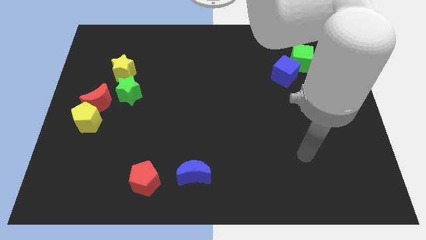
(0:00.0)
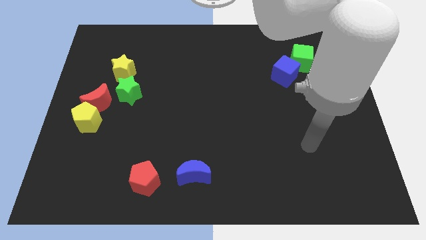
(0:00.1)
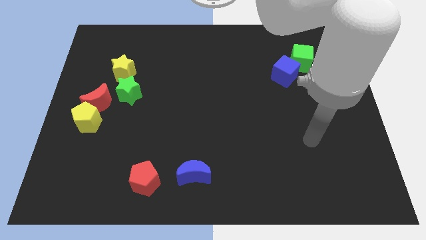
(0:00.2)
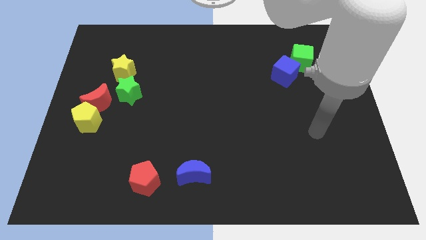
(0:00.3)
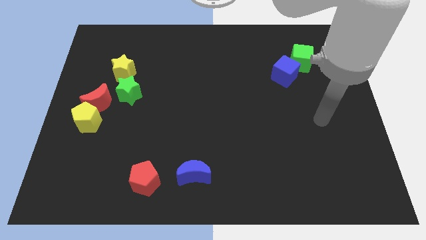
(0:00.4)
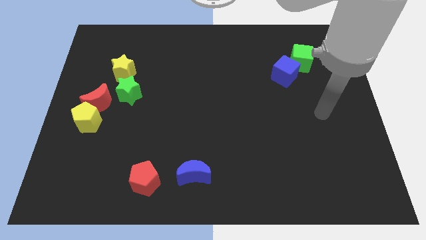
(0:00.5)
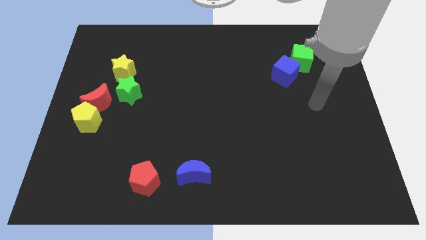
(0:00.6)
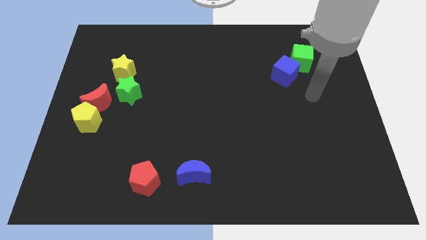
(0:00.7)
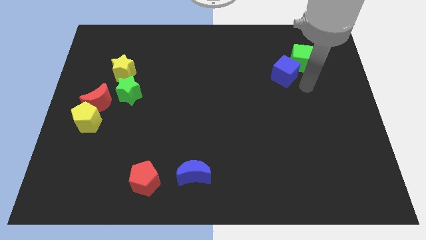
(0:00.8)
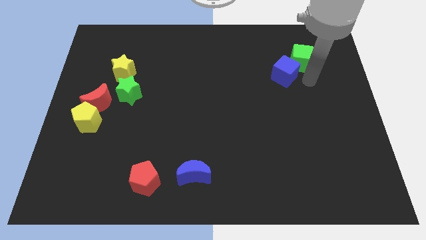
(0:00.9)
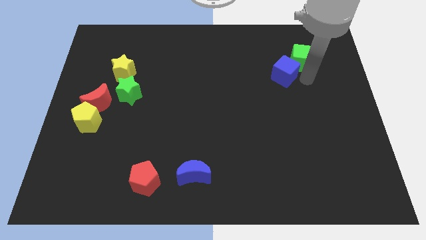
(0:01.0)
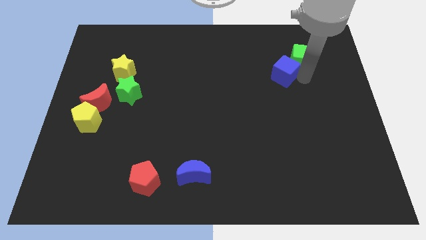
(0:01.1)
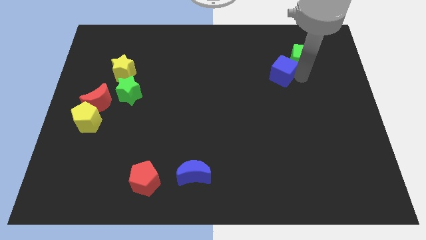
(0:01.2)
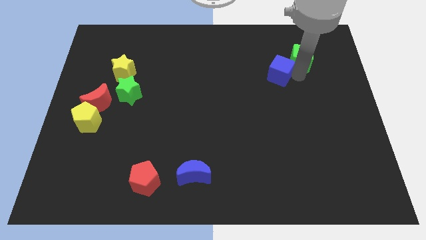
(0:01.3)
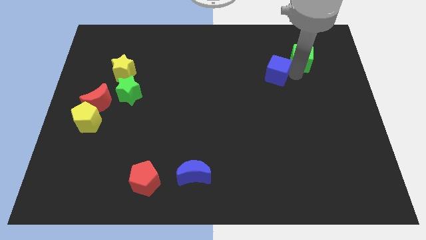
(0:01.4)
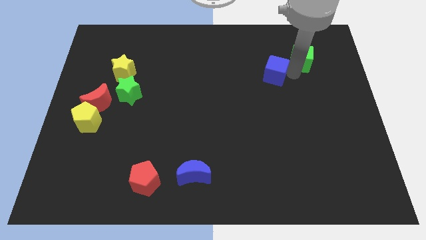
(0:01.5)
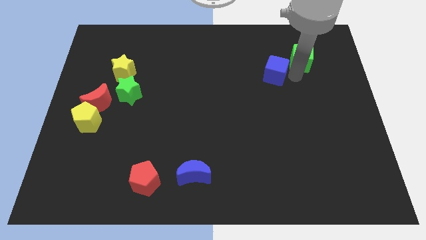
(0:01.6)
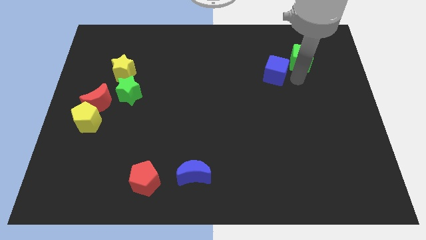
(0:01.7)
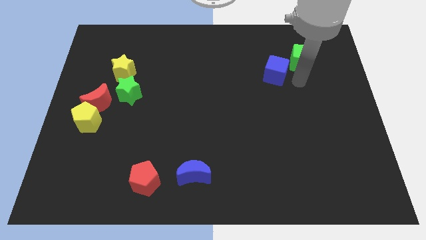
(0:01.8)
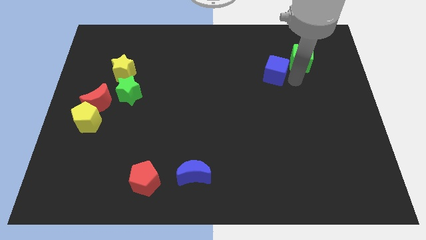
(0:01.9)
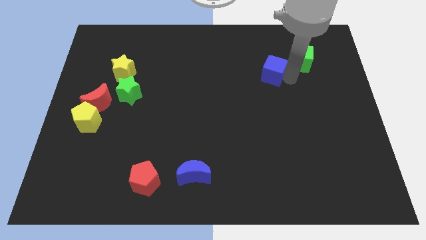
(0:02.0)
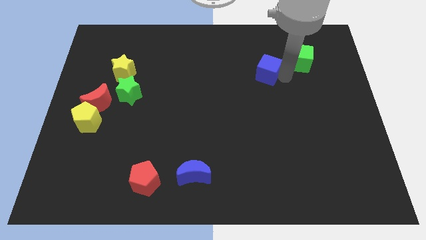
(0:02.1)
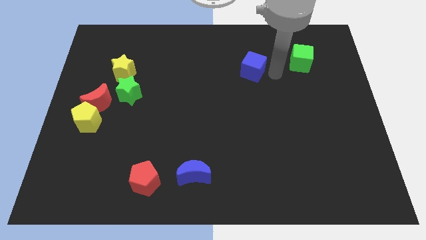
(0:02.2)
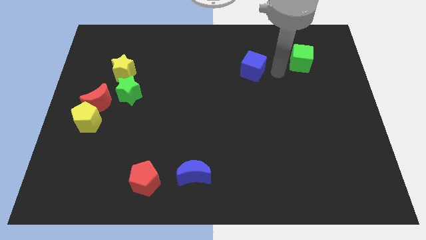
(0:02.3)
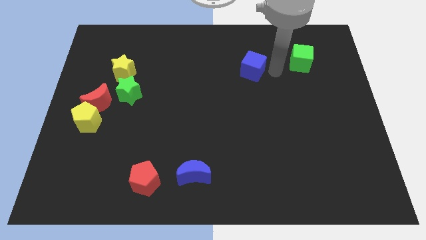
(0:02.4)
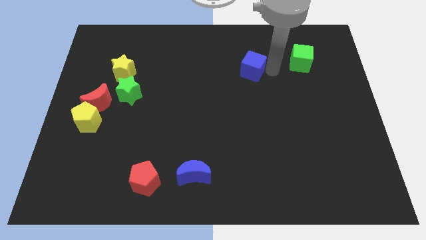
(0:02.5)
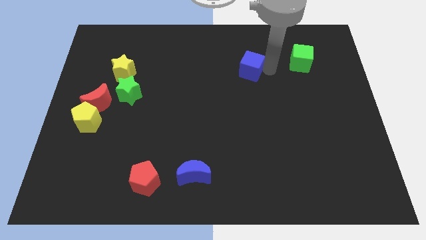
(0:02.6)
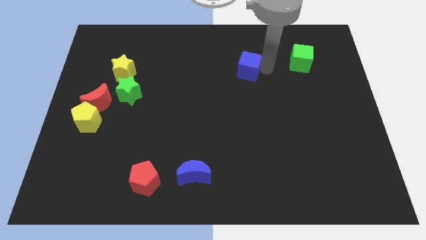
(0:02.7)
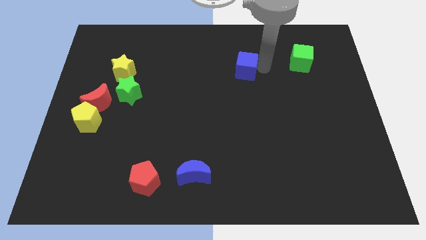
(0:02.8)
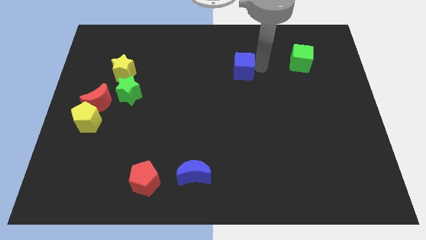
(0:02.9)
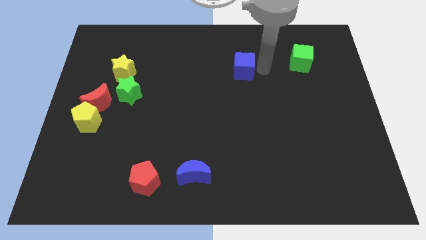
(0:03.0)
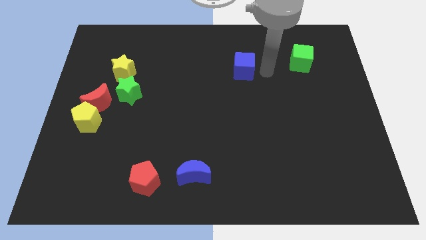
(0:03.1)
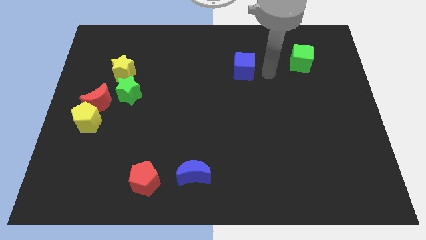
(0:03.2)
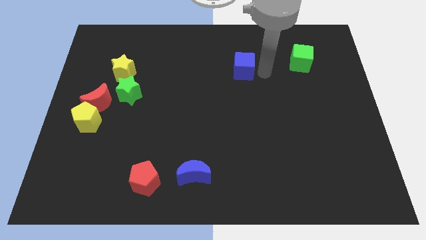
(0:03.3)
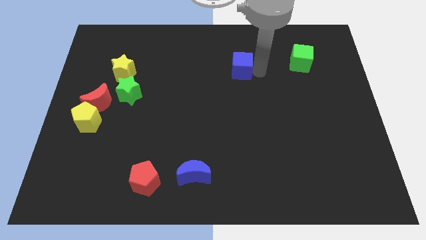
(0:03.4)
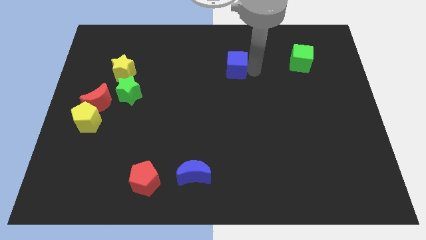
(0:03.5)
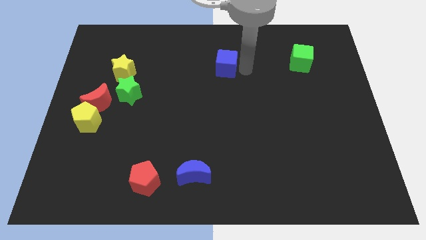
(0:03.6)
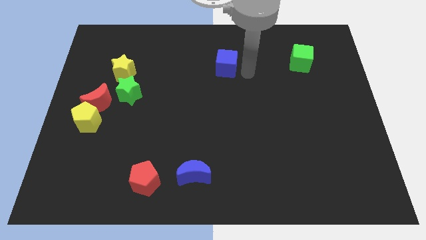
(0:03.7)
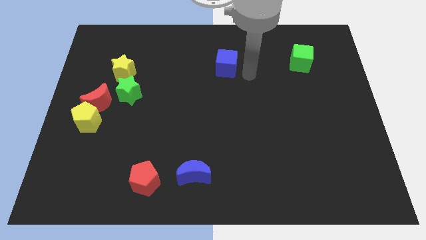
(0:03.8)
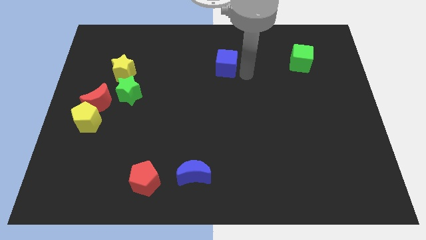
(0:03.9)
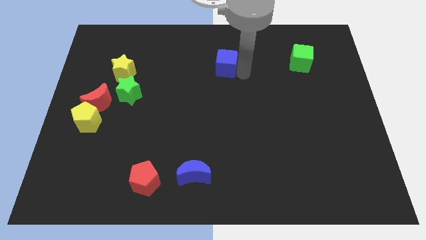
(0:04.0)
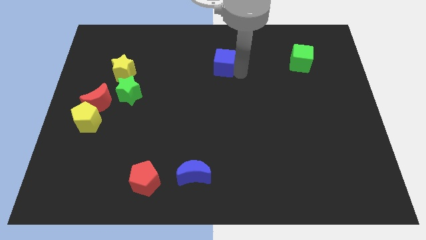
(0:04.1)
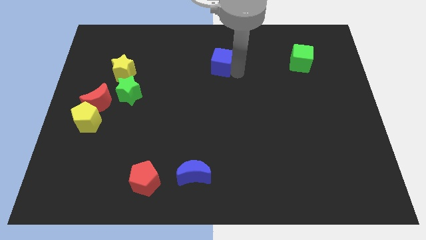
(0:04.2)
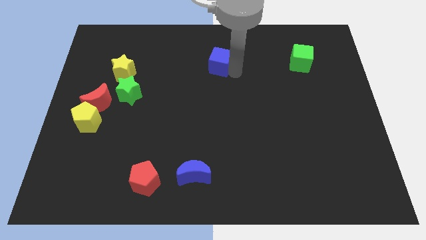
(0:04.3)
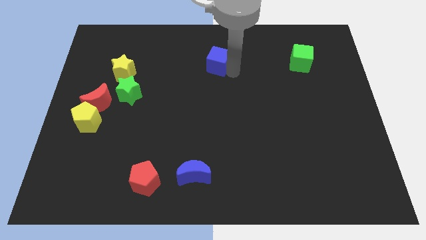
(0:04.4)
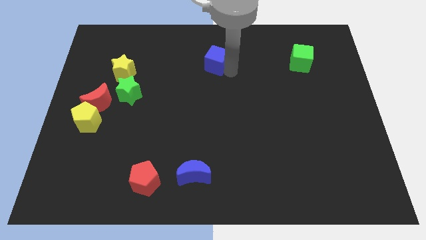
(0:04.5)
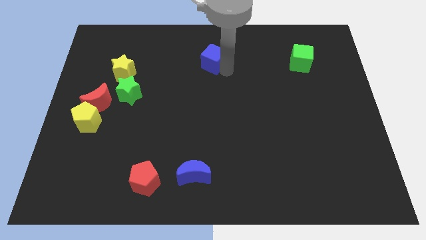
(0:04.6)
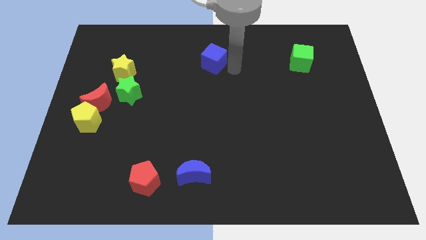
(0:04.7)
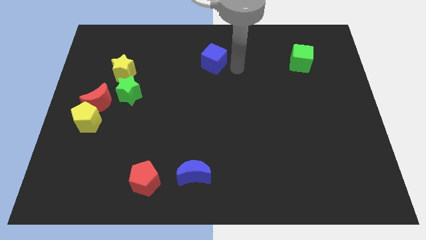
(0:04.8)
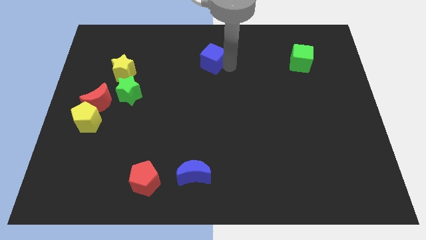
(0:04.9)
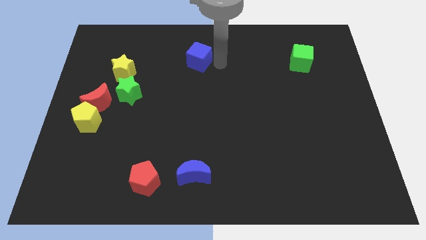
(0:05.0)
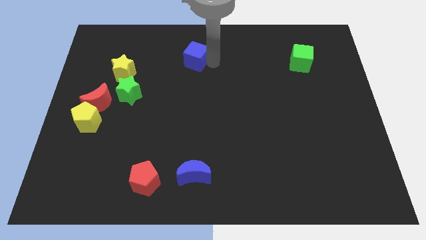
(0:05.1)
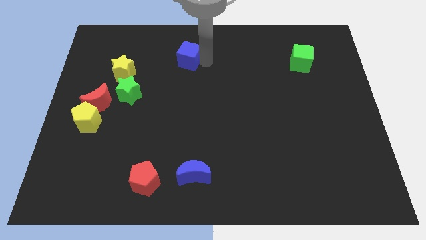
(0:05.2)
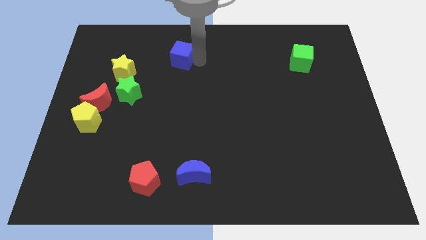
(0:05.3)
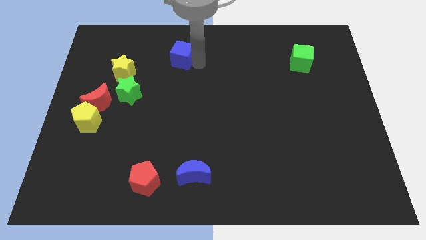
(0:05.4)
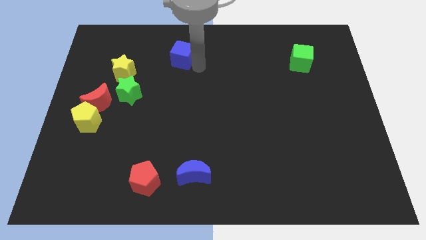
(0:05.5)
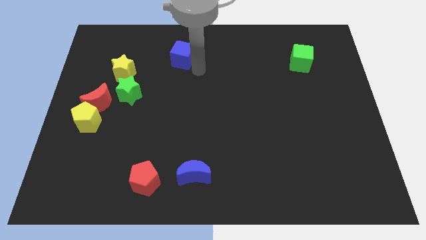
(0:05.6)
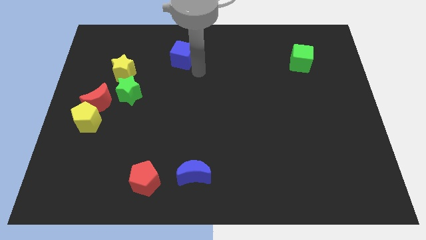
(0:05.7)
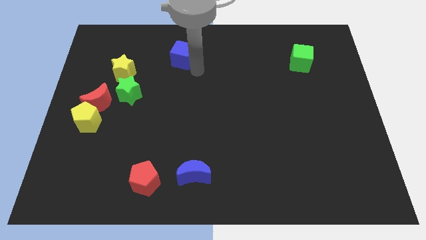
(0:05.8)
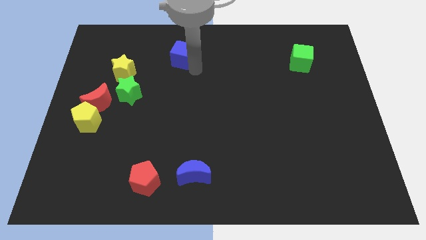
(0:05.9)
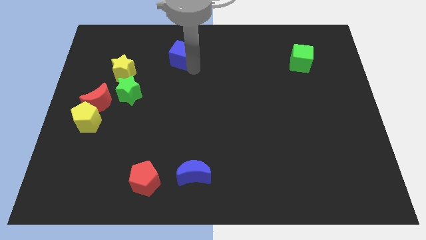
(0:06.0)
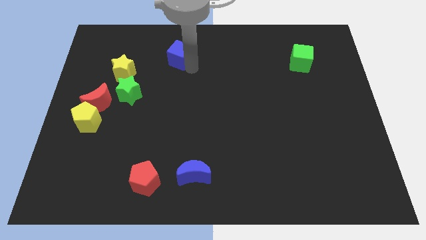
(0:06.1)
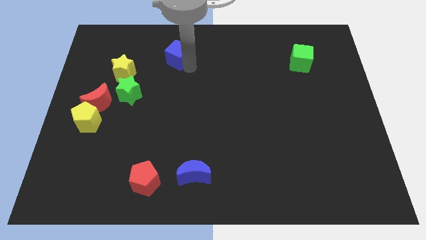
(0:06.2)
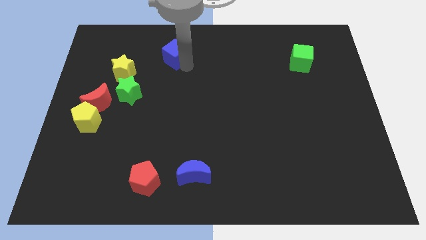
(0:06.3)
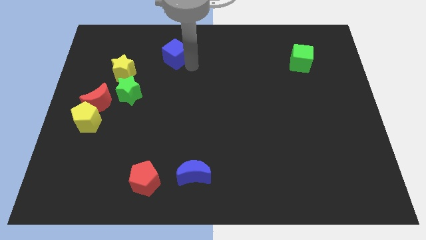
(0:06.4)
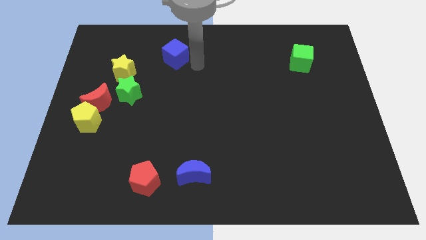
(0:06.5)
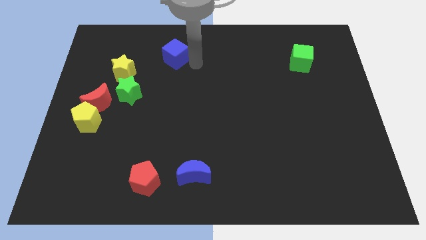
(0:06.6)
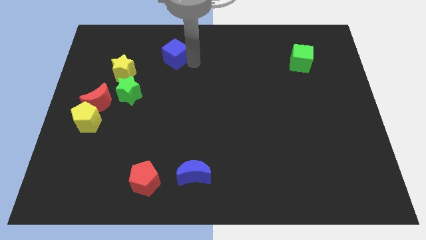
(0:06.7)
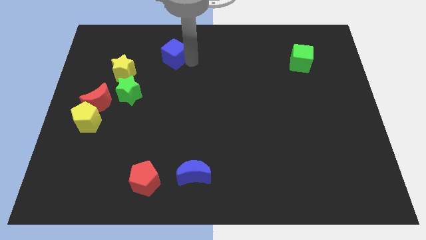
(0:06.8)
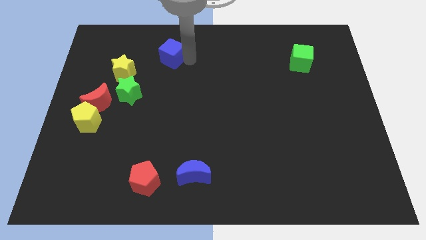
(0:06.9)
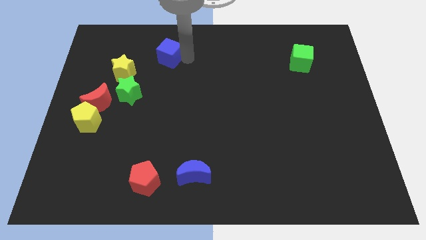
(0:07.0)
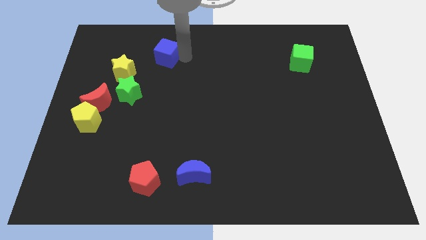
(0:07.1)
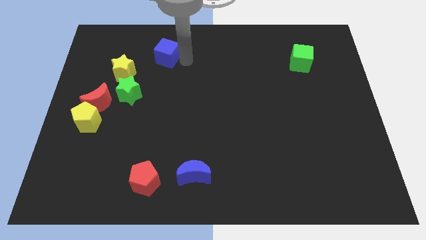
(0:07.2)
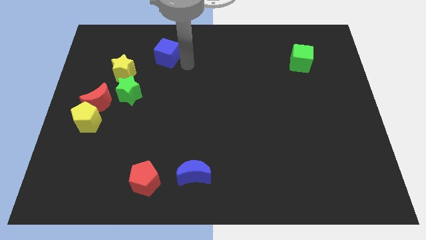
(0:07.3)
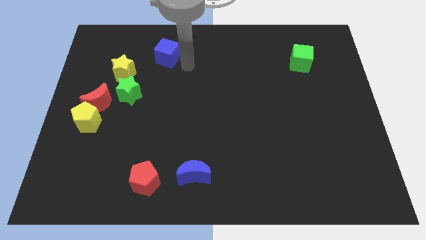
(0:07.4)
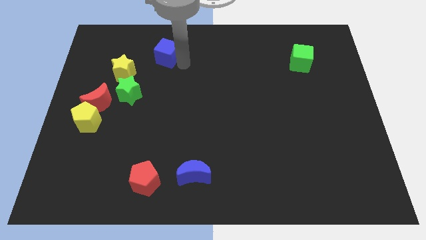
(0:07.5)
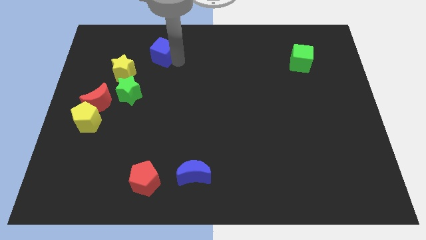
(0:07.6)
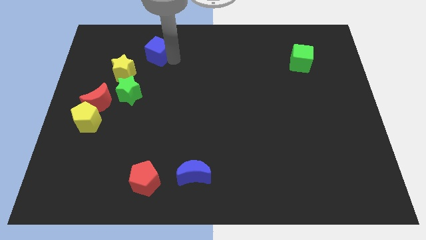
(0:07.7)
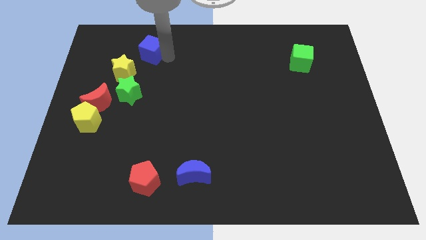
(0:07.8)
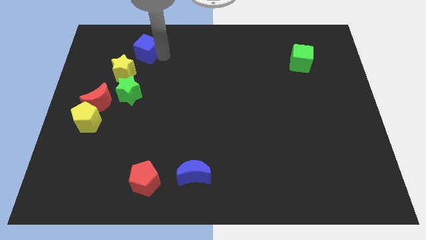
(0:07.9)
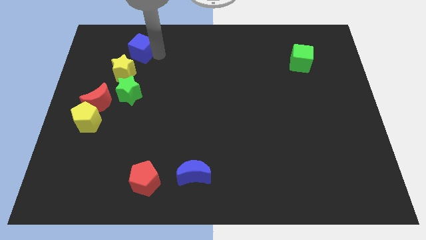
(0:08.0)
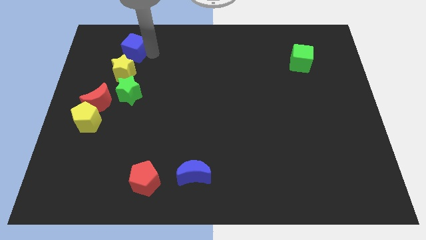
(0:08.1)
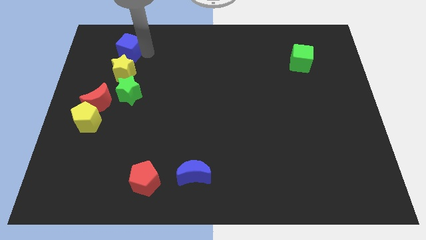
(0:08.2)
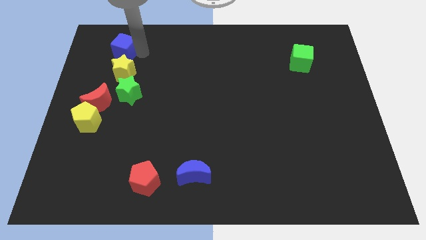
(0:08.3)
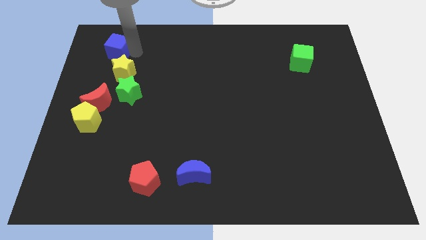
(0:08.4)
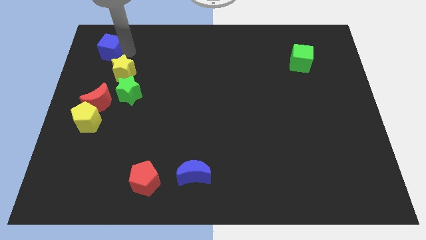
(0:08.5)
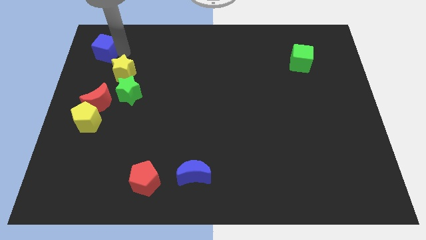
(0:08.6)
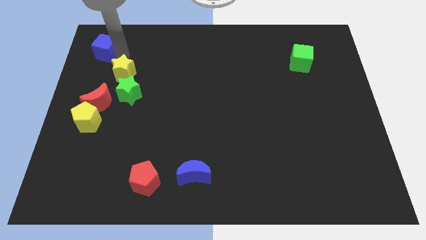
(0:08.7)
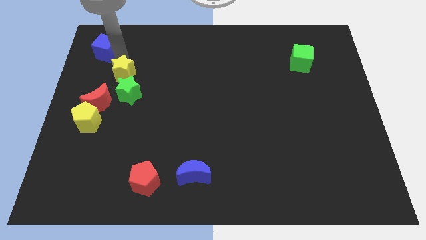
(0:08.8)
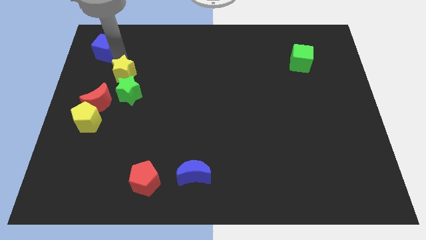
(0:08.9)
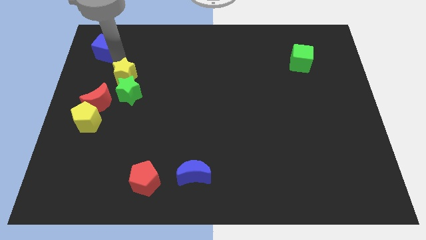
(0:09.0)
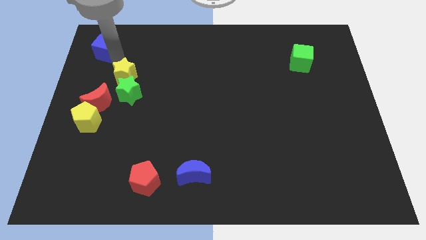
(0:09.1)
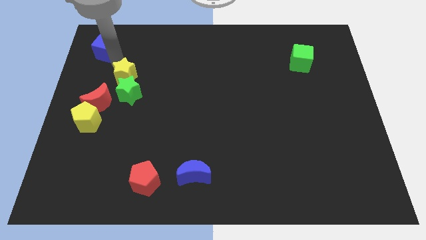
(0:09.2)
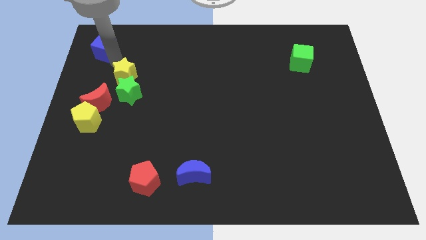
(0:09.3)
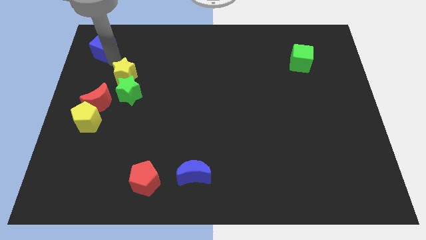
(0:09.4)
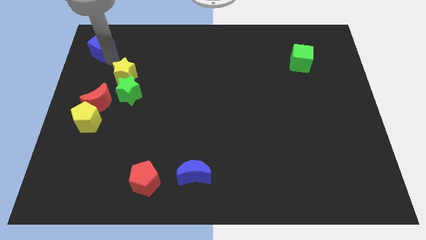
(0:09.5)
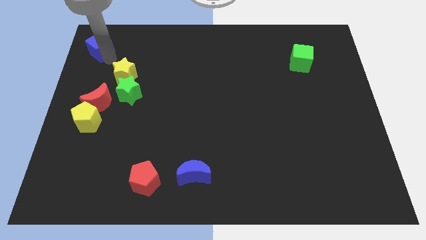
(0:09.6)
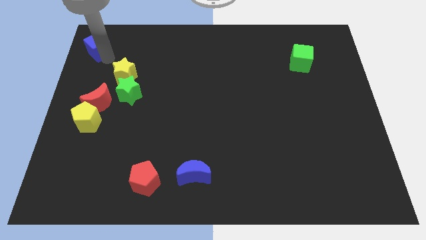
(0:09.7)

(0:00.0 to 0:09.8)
put the blue cube to the upper left corner
